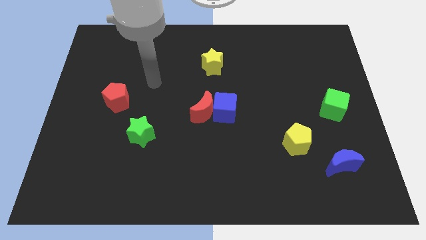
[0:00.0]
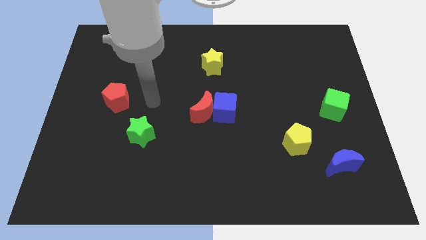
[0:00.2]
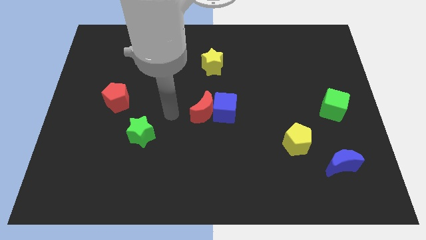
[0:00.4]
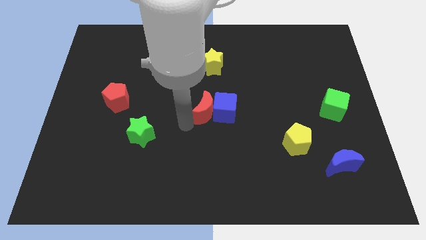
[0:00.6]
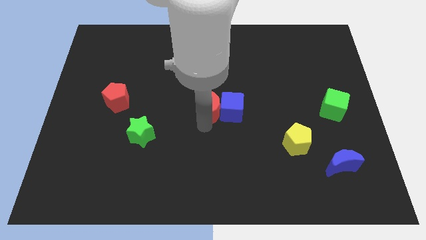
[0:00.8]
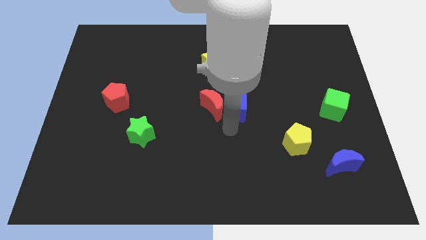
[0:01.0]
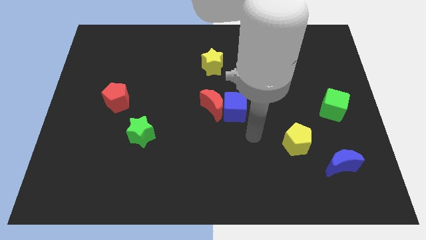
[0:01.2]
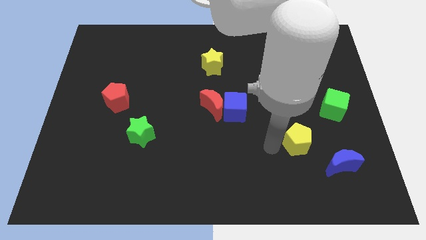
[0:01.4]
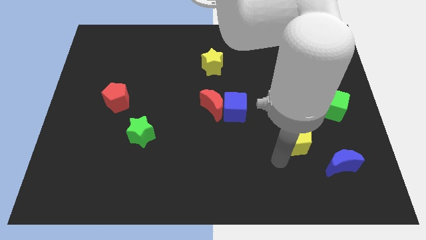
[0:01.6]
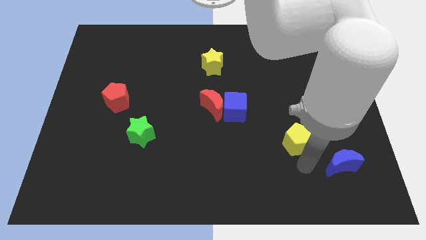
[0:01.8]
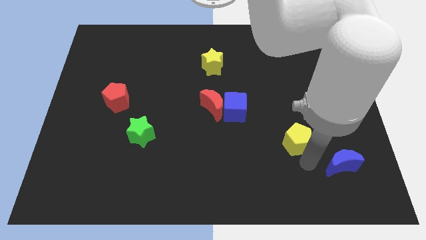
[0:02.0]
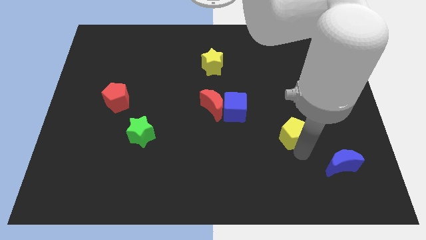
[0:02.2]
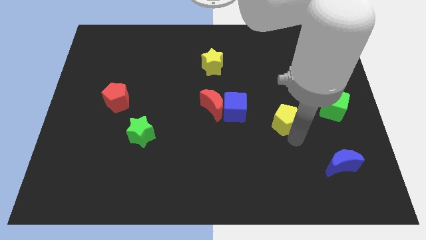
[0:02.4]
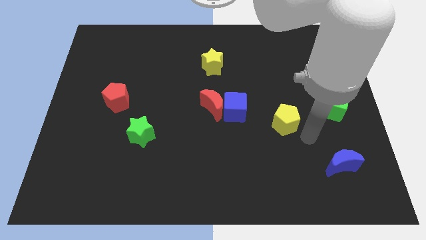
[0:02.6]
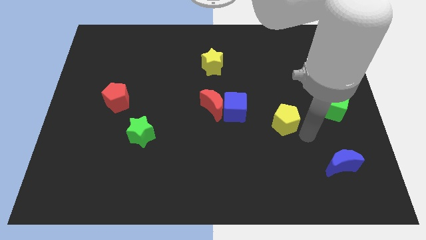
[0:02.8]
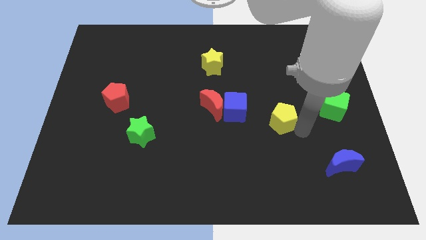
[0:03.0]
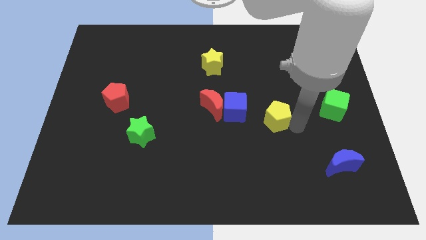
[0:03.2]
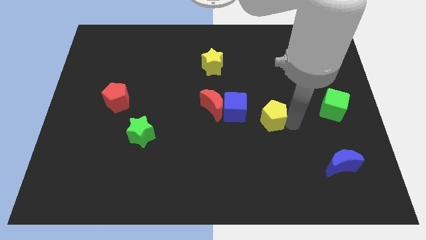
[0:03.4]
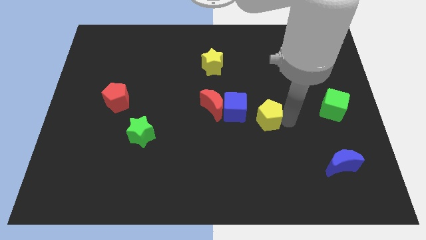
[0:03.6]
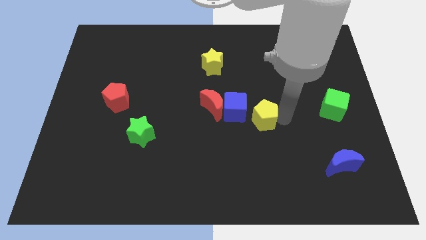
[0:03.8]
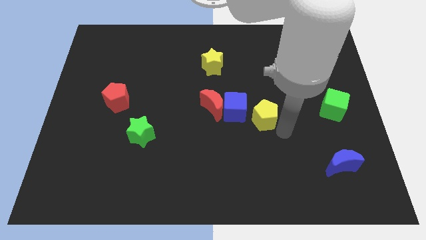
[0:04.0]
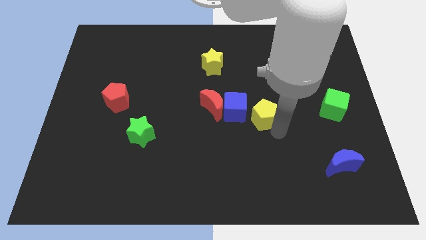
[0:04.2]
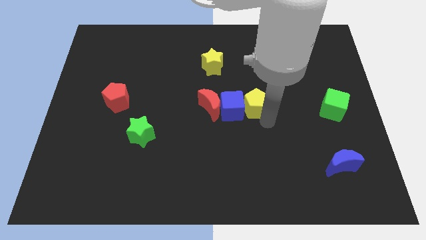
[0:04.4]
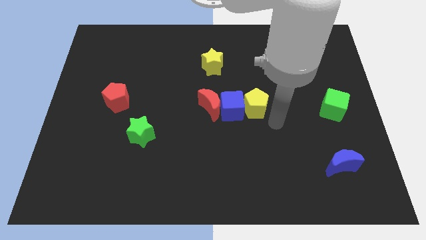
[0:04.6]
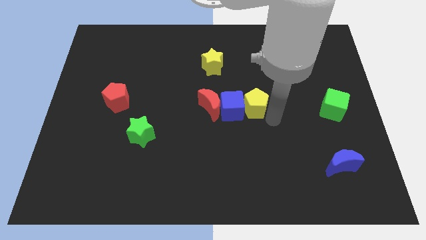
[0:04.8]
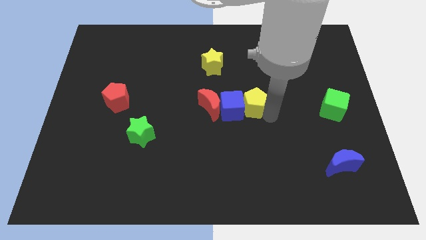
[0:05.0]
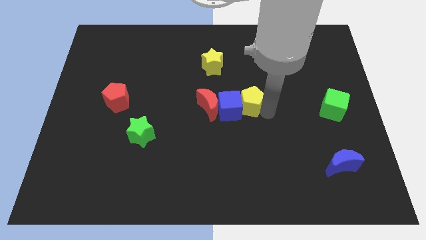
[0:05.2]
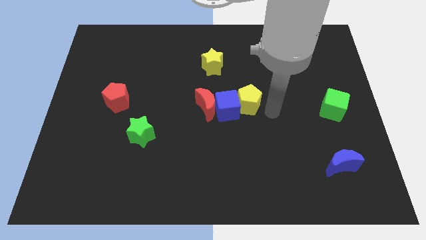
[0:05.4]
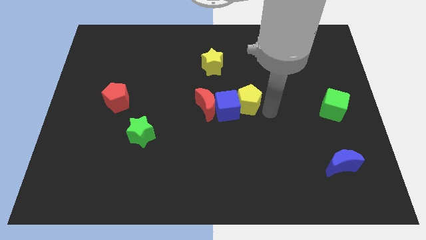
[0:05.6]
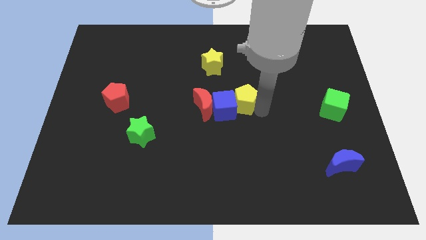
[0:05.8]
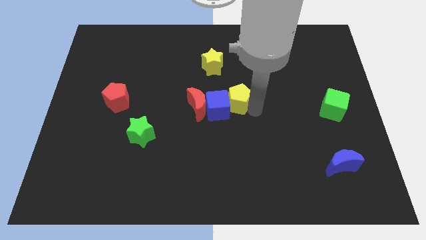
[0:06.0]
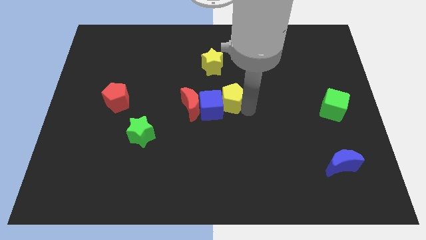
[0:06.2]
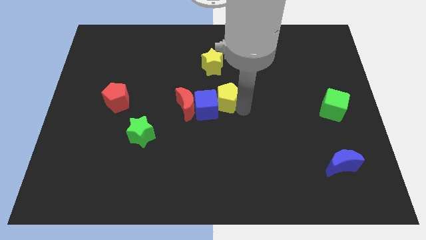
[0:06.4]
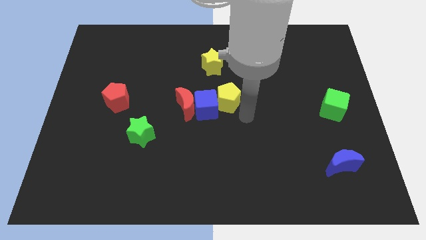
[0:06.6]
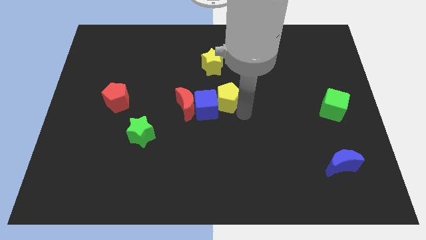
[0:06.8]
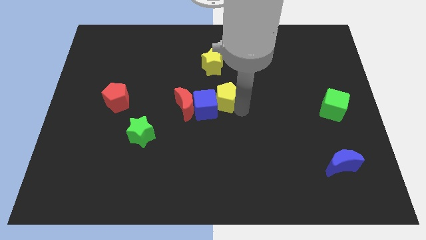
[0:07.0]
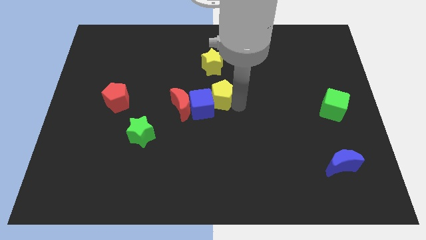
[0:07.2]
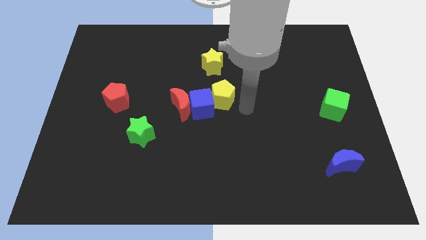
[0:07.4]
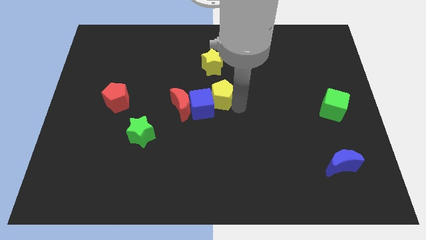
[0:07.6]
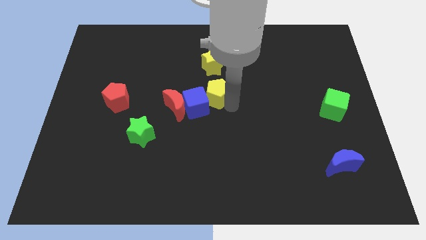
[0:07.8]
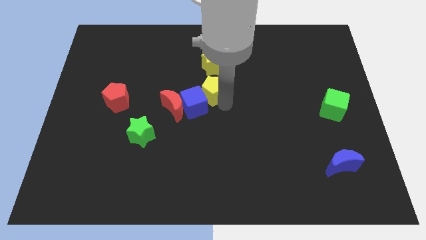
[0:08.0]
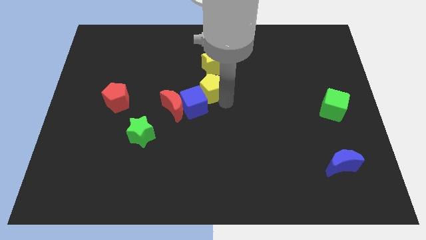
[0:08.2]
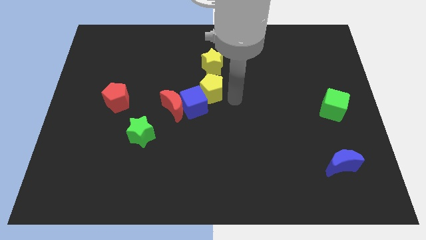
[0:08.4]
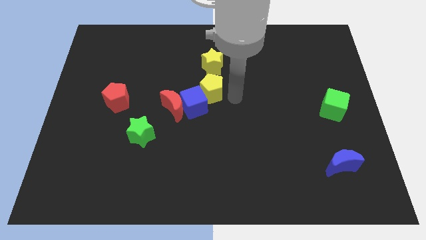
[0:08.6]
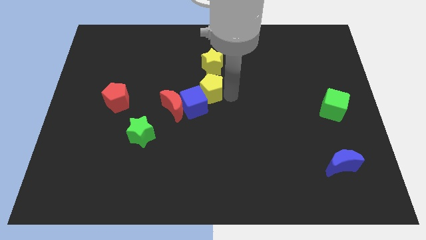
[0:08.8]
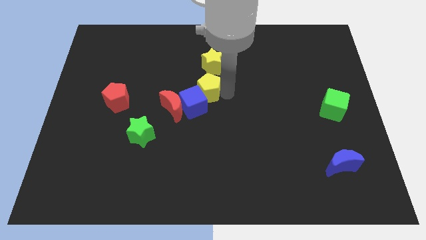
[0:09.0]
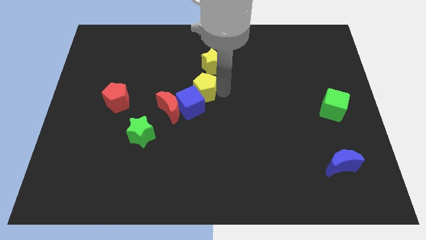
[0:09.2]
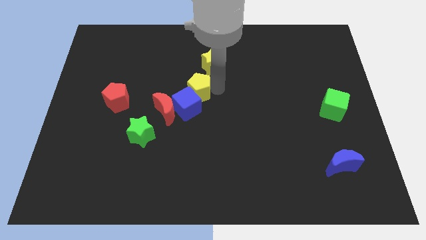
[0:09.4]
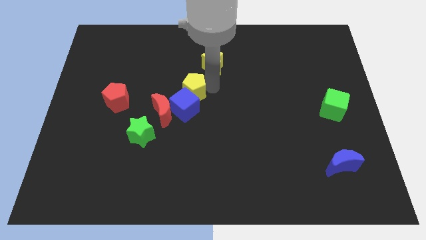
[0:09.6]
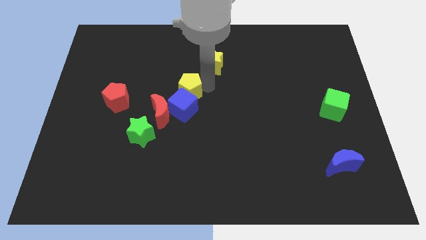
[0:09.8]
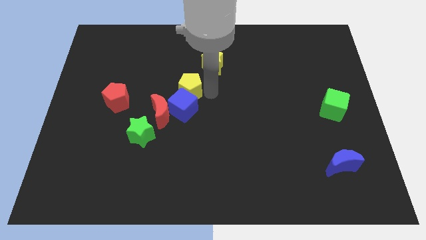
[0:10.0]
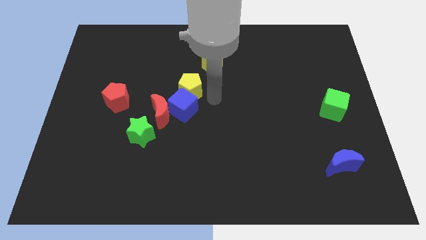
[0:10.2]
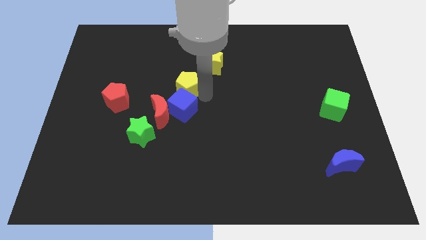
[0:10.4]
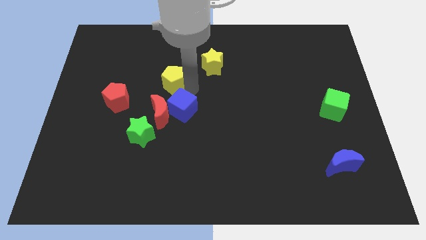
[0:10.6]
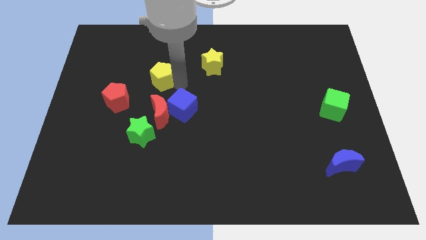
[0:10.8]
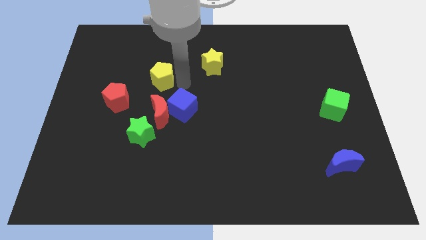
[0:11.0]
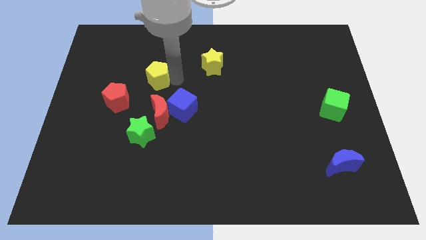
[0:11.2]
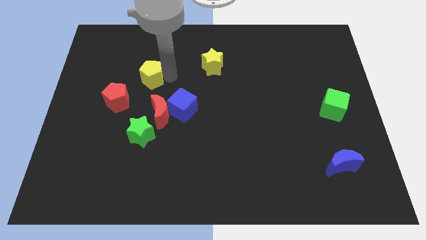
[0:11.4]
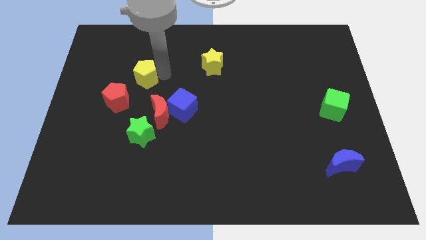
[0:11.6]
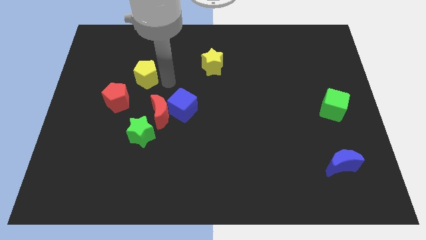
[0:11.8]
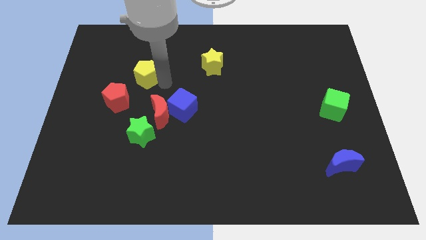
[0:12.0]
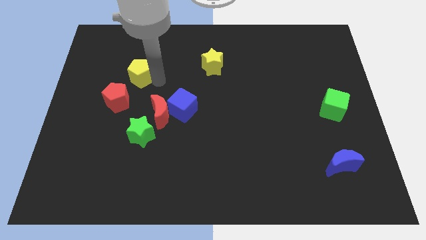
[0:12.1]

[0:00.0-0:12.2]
push the yellow pentagon above the red pentagon
